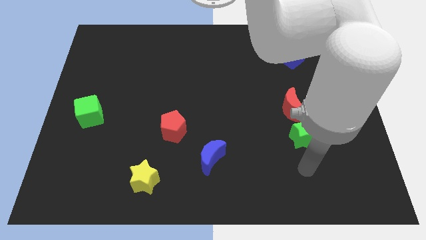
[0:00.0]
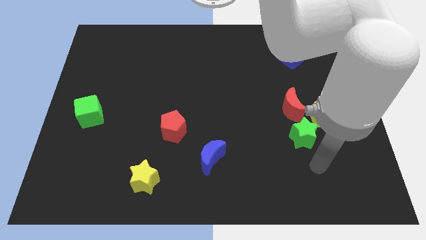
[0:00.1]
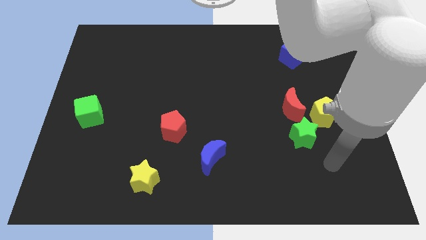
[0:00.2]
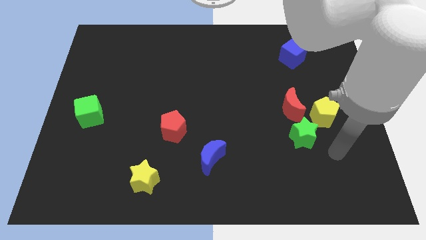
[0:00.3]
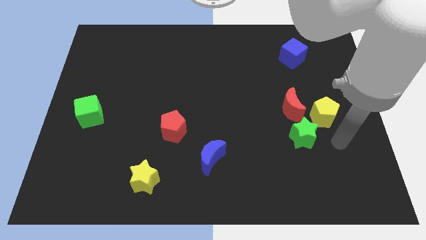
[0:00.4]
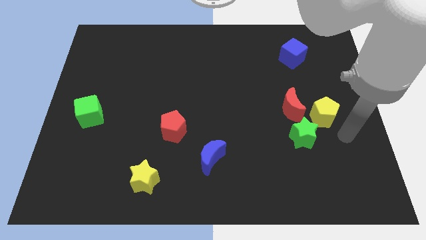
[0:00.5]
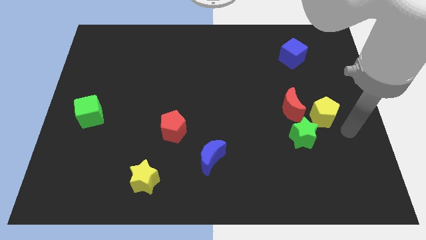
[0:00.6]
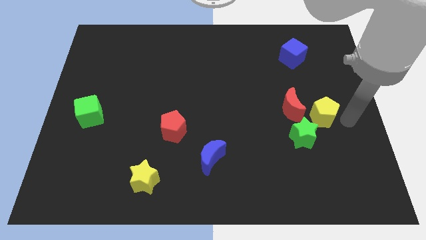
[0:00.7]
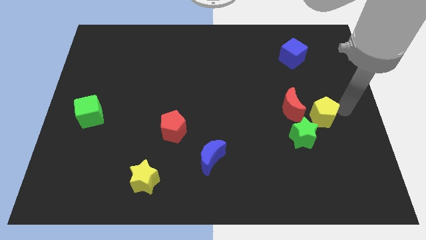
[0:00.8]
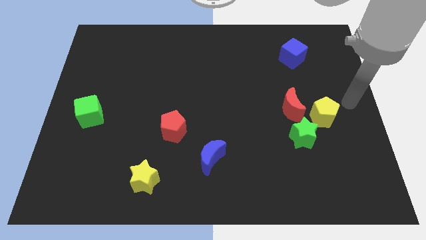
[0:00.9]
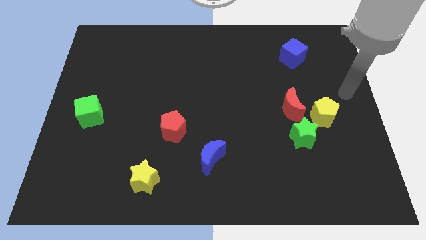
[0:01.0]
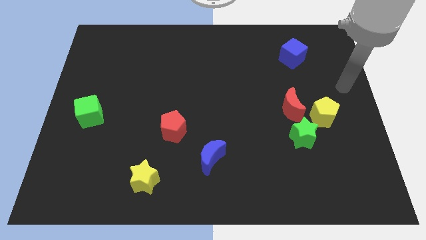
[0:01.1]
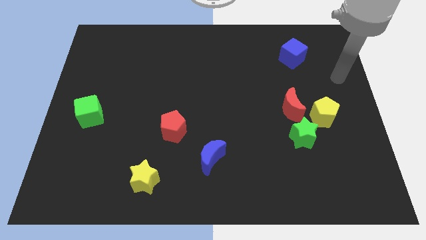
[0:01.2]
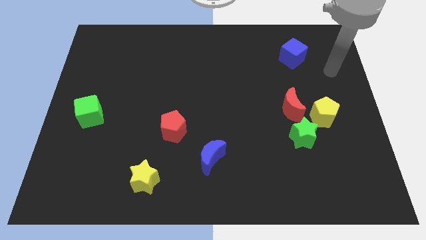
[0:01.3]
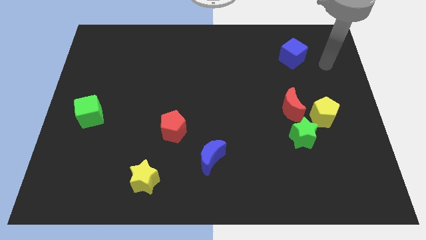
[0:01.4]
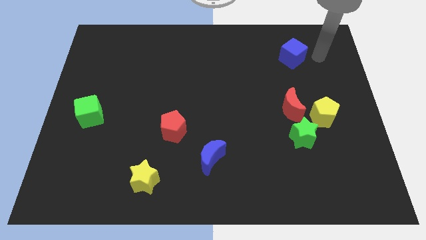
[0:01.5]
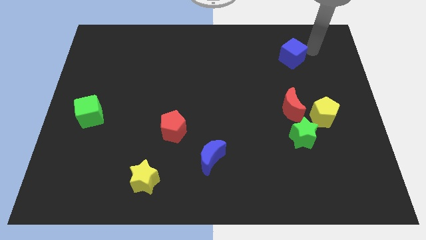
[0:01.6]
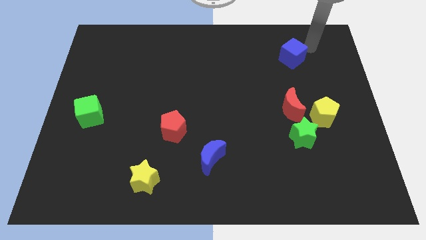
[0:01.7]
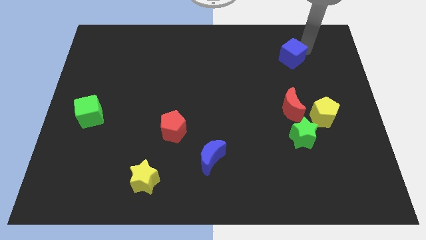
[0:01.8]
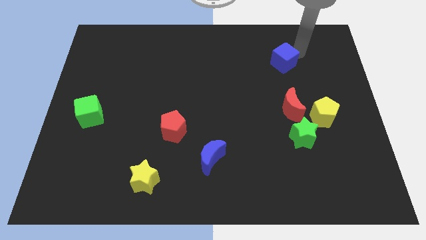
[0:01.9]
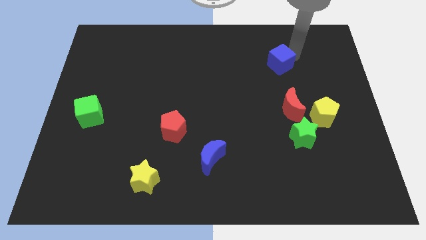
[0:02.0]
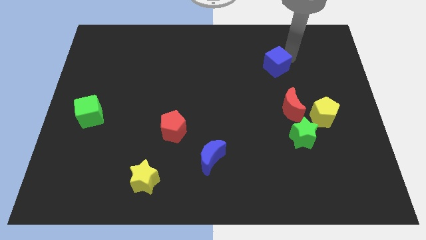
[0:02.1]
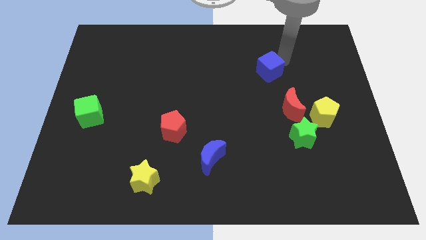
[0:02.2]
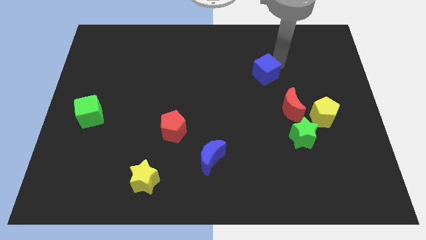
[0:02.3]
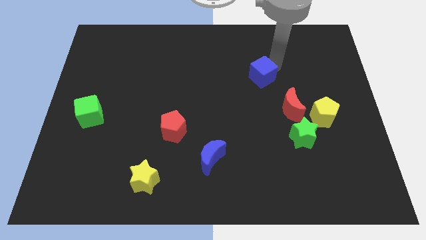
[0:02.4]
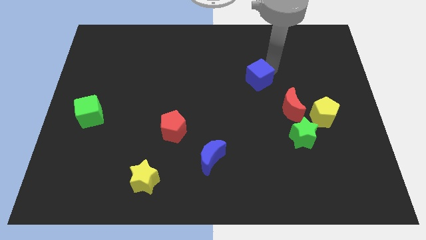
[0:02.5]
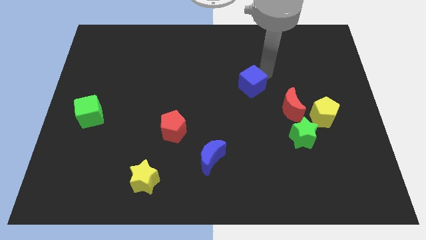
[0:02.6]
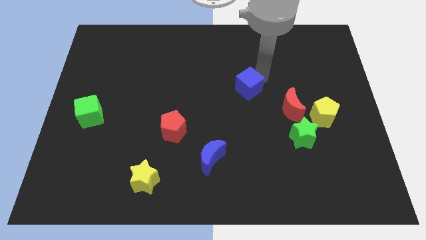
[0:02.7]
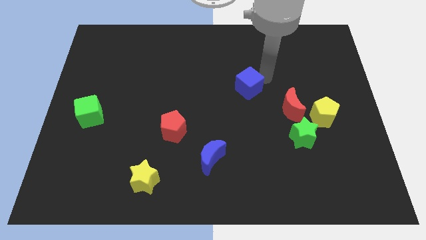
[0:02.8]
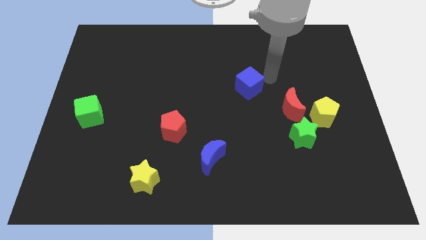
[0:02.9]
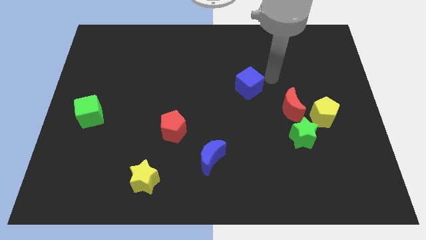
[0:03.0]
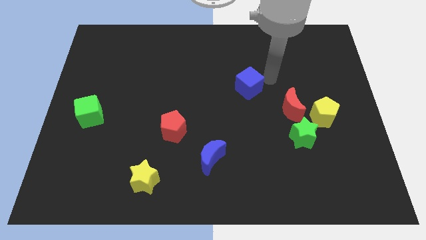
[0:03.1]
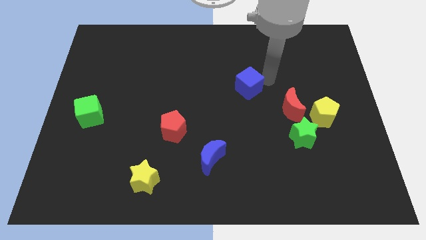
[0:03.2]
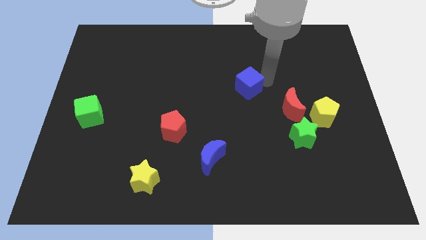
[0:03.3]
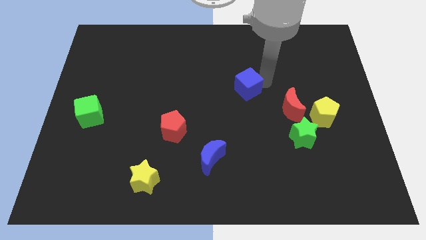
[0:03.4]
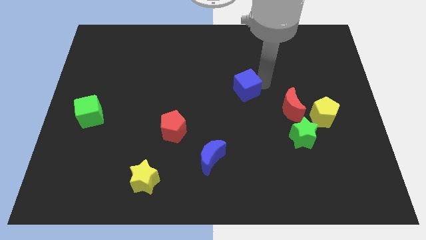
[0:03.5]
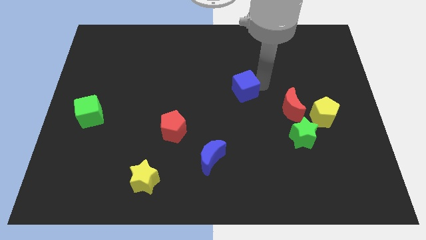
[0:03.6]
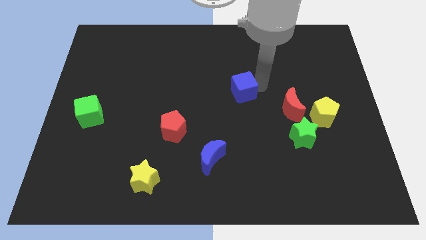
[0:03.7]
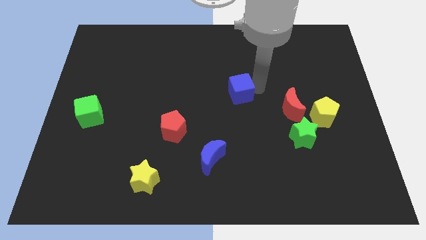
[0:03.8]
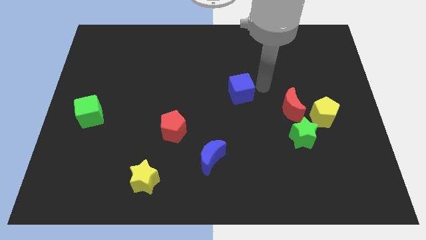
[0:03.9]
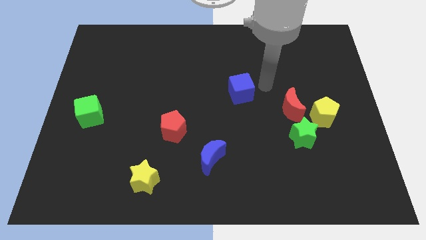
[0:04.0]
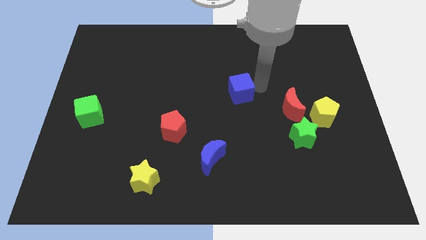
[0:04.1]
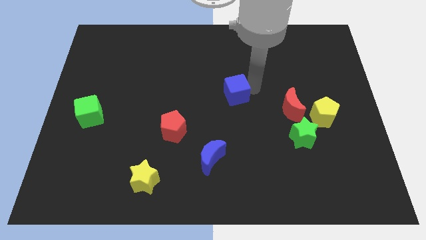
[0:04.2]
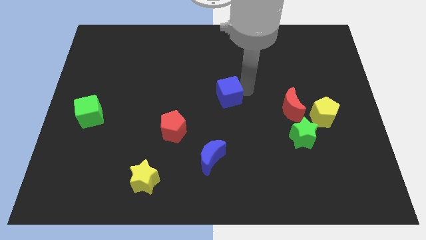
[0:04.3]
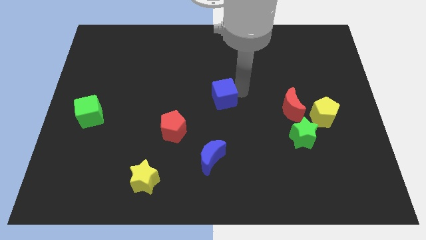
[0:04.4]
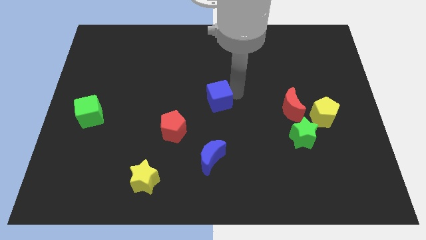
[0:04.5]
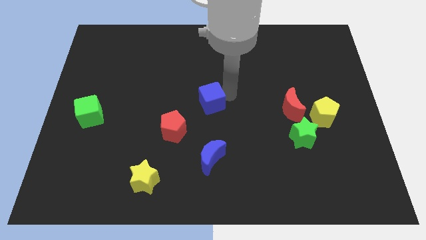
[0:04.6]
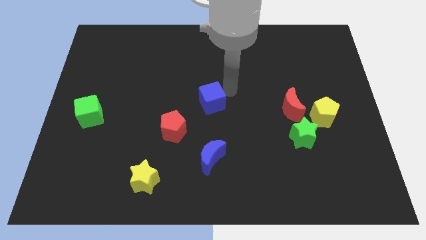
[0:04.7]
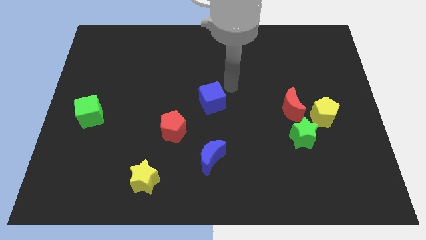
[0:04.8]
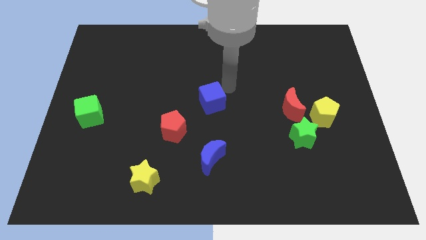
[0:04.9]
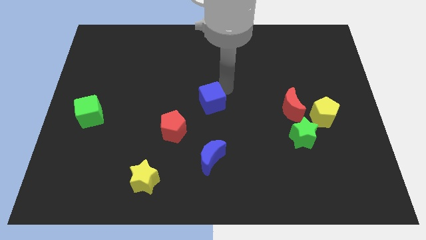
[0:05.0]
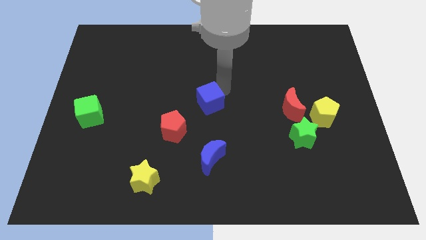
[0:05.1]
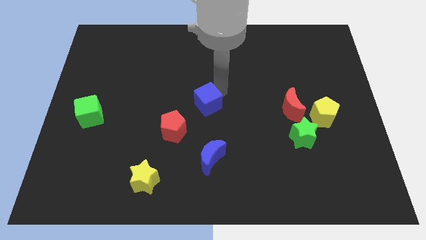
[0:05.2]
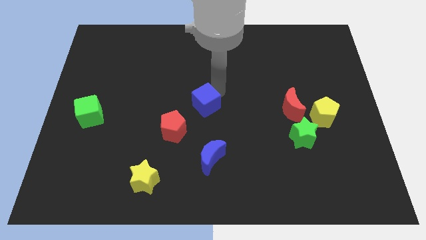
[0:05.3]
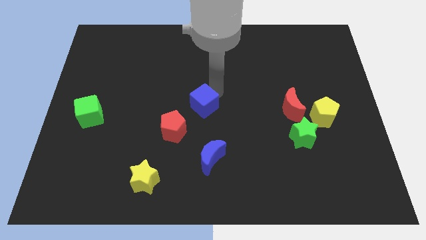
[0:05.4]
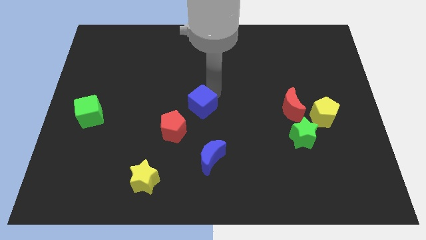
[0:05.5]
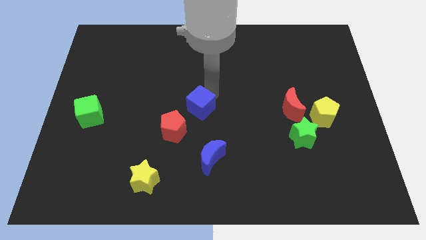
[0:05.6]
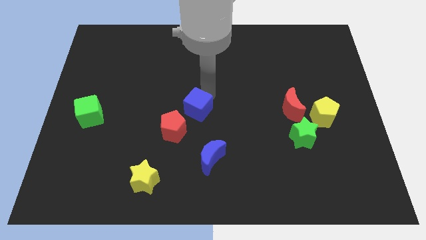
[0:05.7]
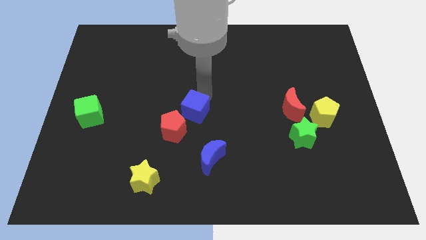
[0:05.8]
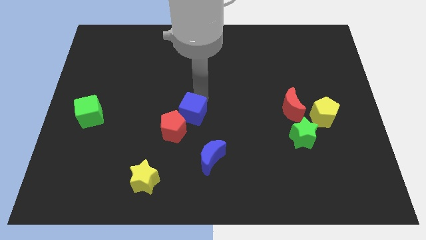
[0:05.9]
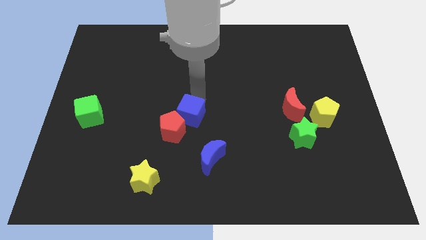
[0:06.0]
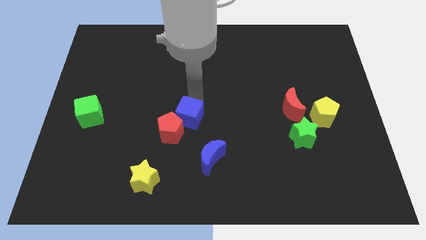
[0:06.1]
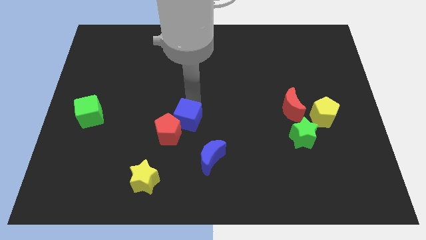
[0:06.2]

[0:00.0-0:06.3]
push the blue cube to the top left of the blue moon

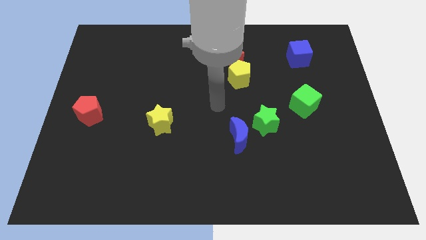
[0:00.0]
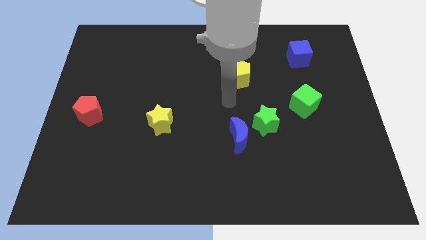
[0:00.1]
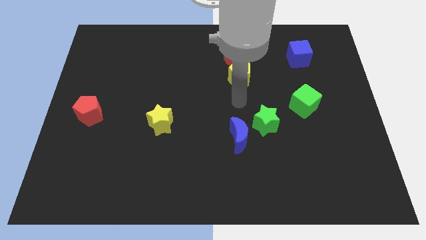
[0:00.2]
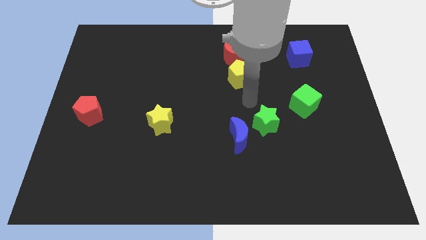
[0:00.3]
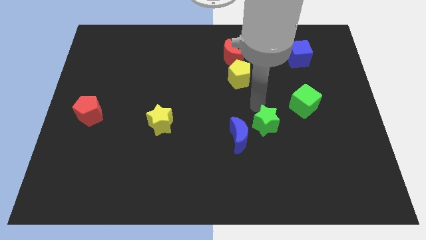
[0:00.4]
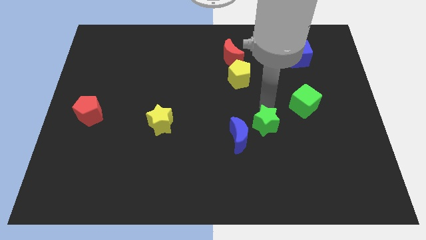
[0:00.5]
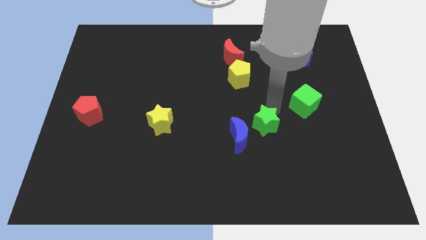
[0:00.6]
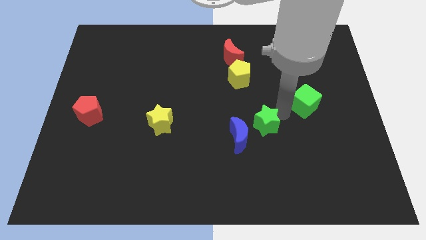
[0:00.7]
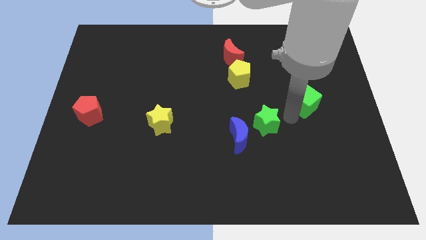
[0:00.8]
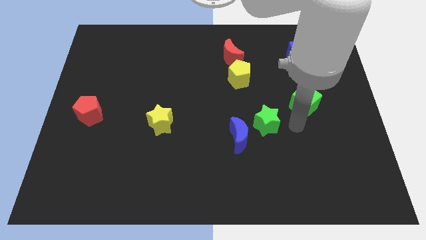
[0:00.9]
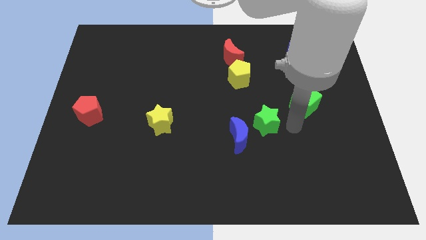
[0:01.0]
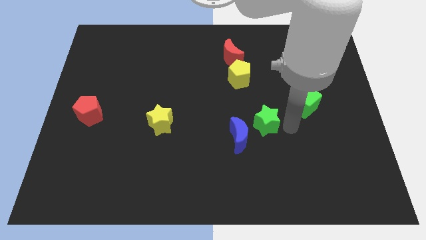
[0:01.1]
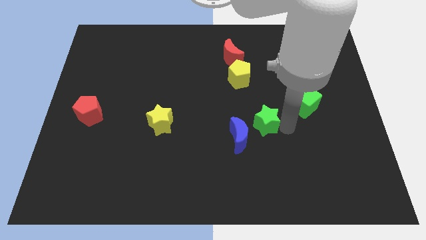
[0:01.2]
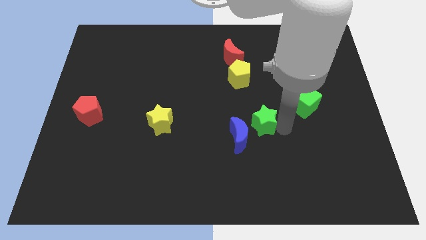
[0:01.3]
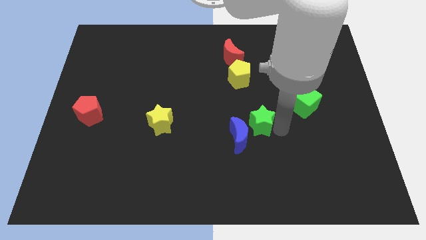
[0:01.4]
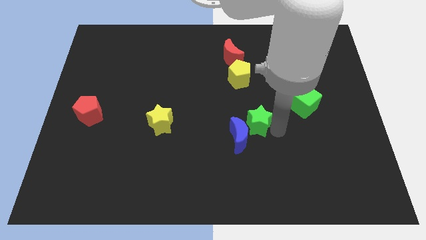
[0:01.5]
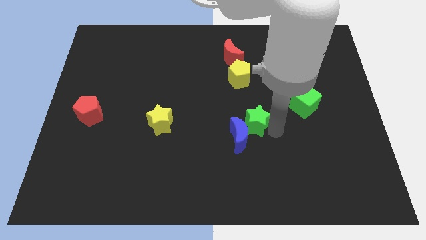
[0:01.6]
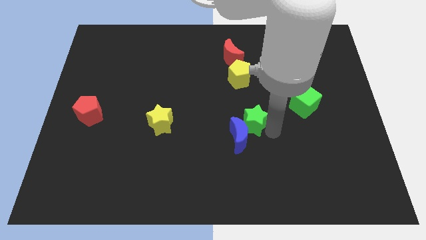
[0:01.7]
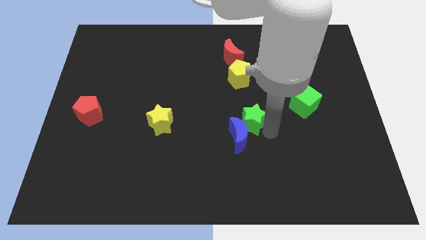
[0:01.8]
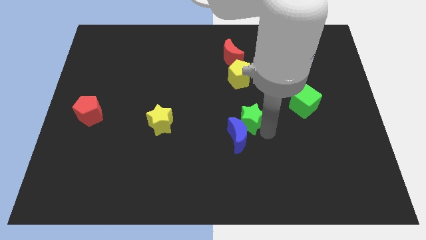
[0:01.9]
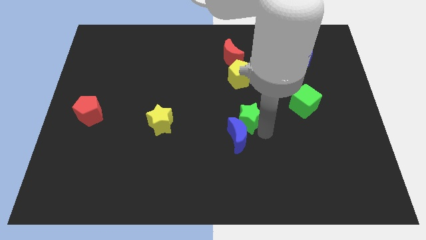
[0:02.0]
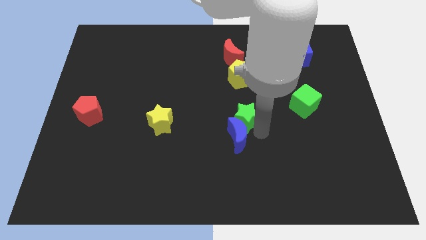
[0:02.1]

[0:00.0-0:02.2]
put the green star to the top left of the blue moon
